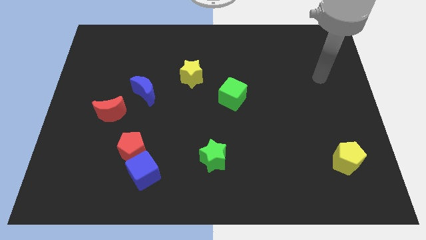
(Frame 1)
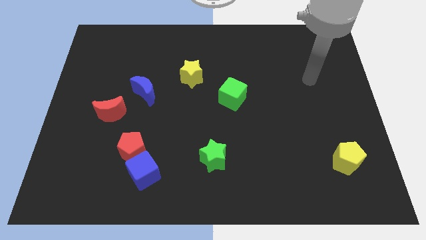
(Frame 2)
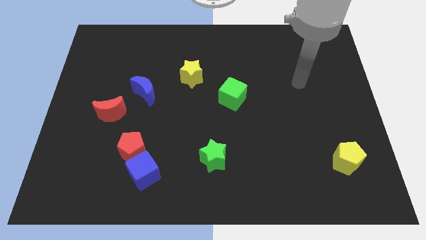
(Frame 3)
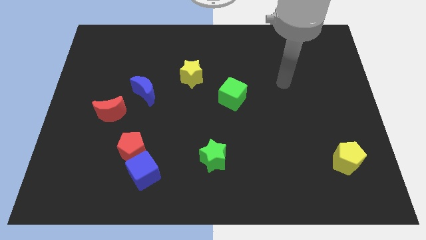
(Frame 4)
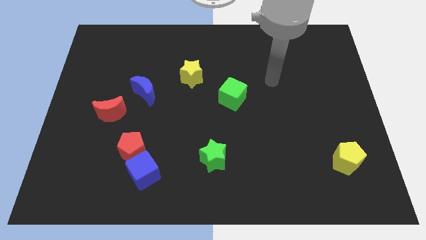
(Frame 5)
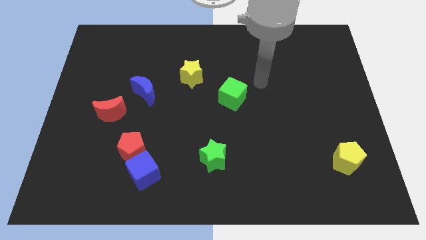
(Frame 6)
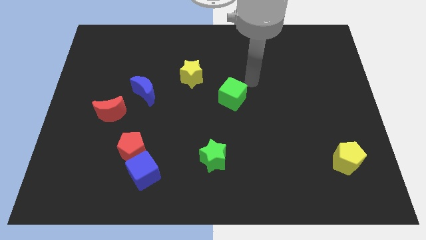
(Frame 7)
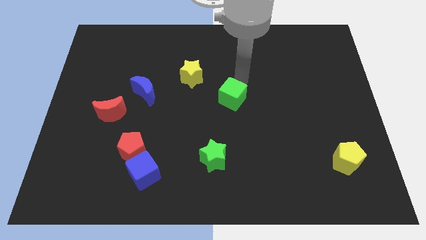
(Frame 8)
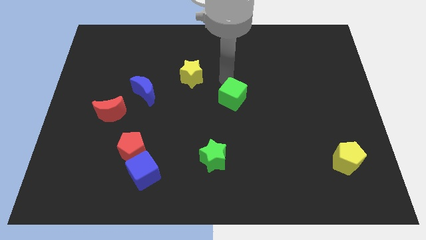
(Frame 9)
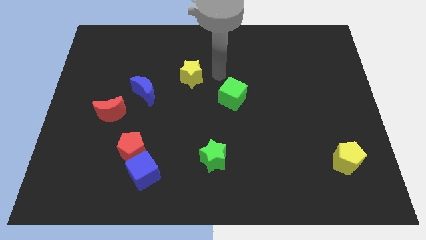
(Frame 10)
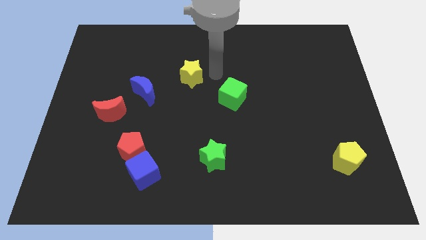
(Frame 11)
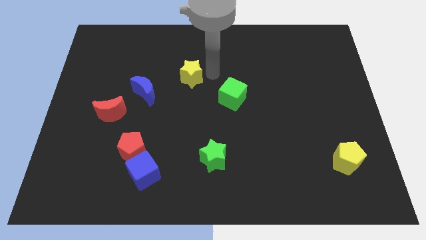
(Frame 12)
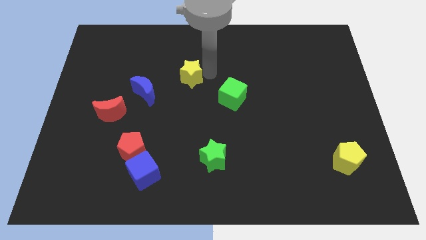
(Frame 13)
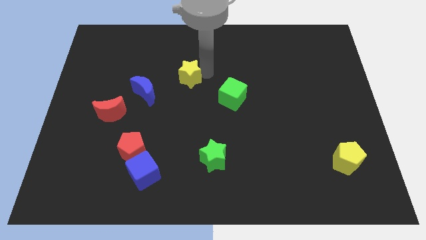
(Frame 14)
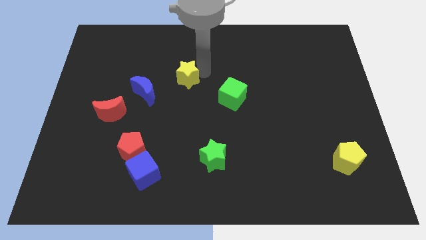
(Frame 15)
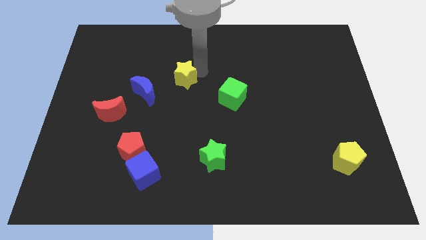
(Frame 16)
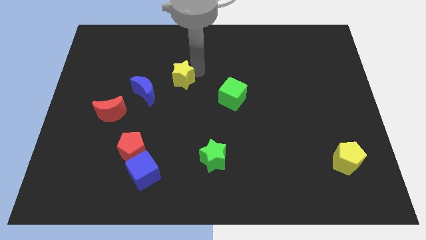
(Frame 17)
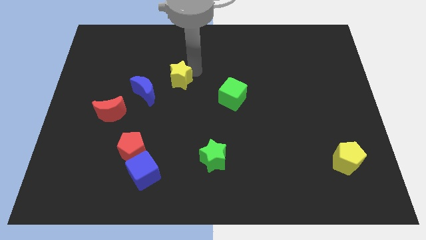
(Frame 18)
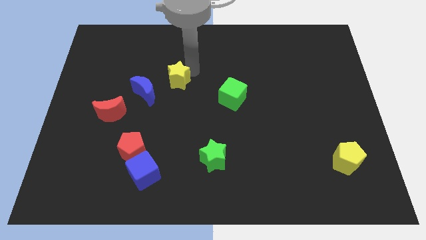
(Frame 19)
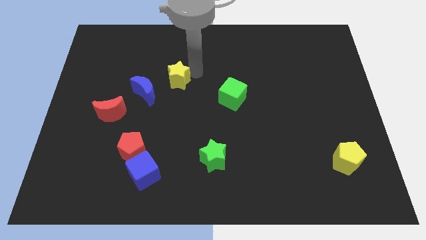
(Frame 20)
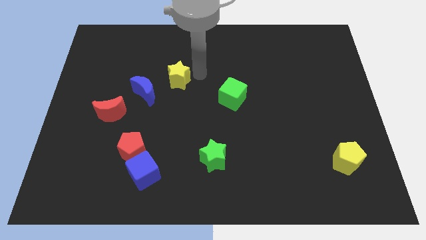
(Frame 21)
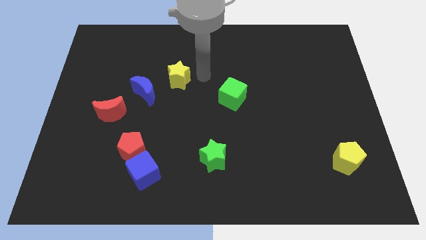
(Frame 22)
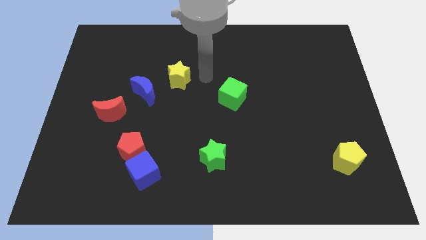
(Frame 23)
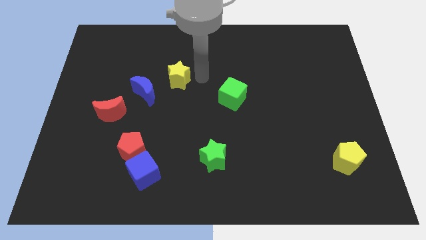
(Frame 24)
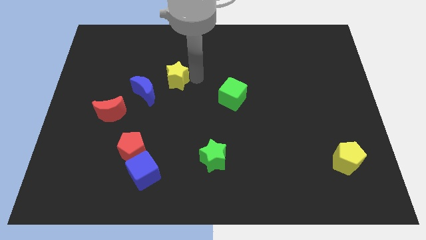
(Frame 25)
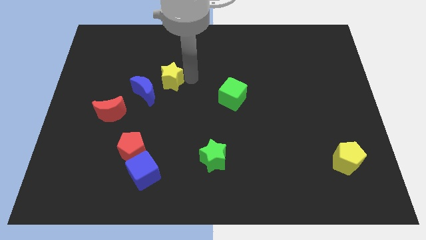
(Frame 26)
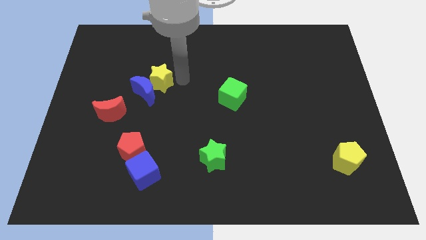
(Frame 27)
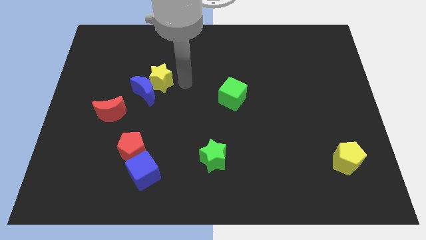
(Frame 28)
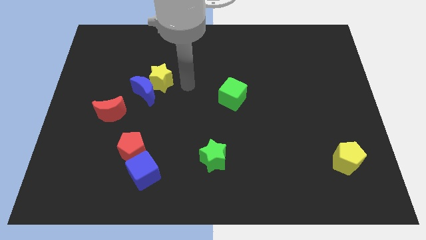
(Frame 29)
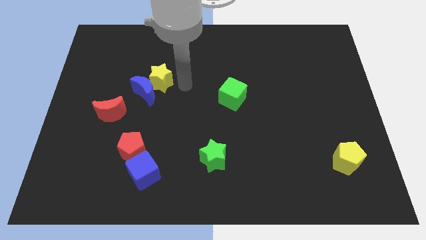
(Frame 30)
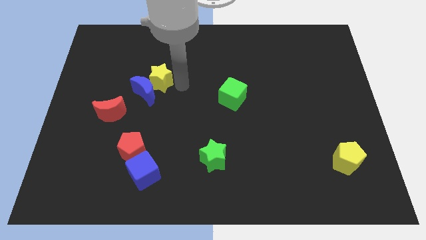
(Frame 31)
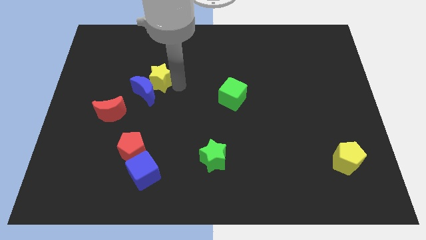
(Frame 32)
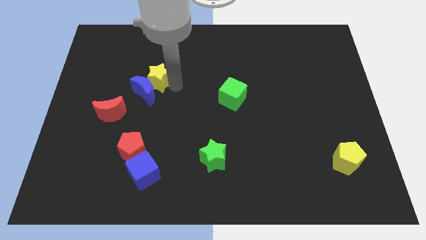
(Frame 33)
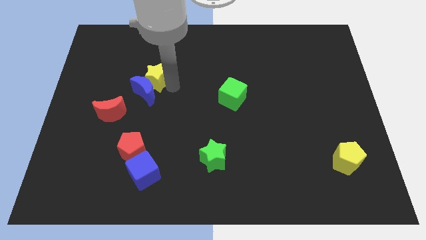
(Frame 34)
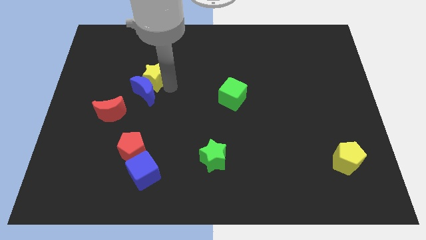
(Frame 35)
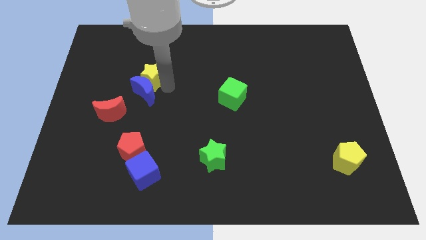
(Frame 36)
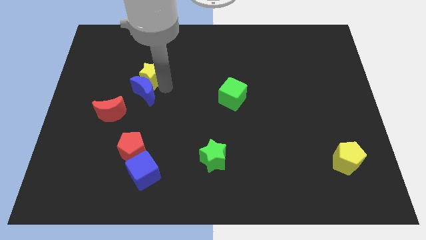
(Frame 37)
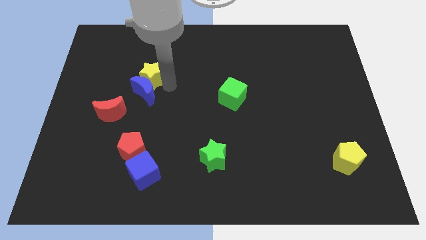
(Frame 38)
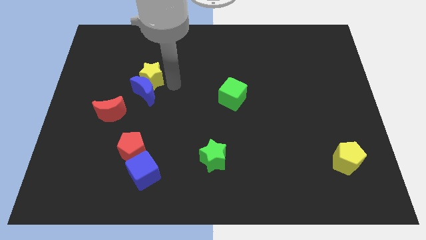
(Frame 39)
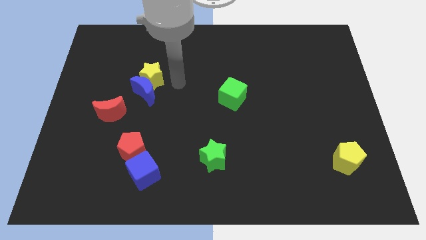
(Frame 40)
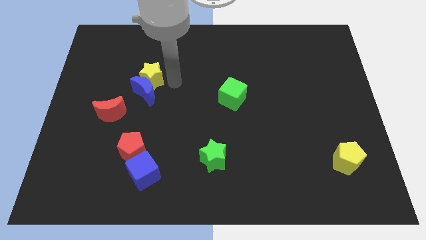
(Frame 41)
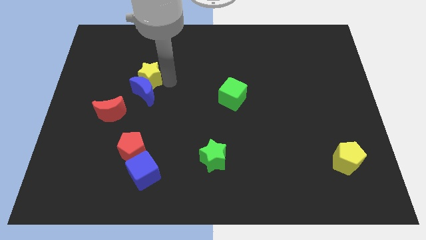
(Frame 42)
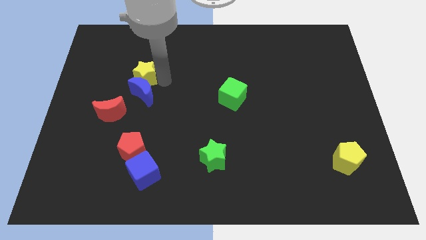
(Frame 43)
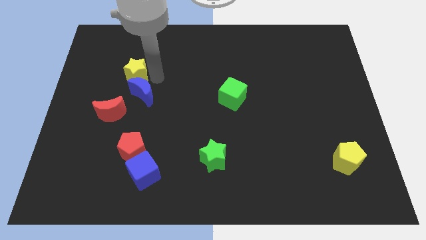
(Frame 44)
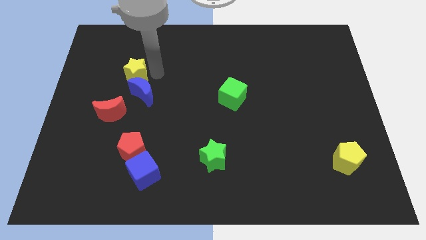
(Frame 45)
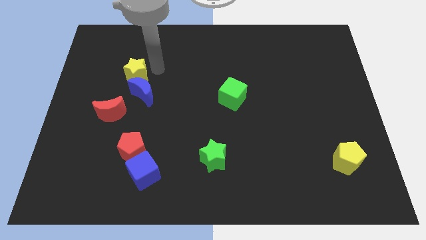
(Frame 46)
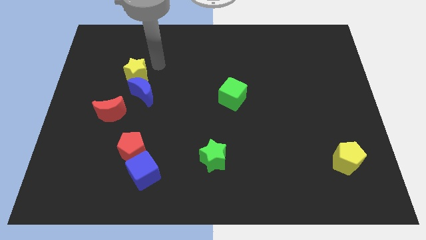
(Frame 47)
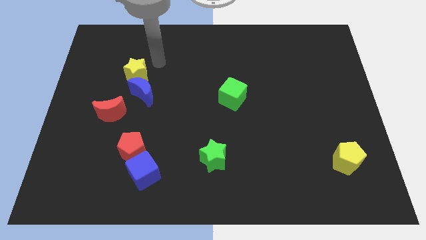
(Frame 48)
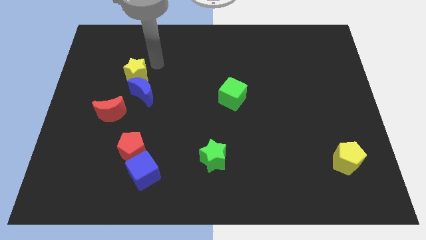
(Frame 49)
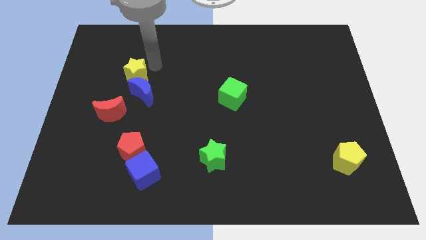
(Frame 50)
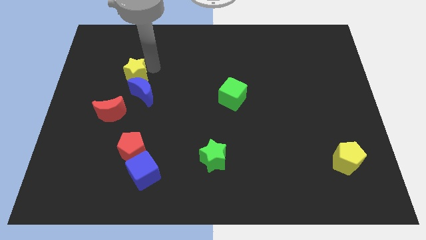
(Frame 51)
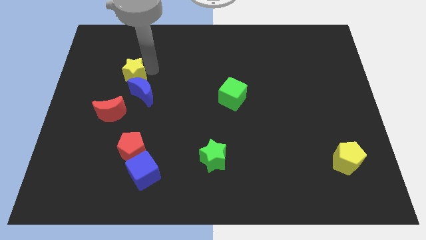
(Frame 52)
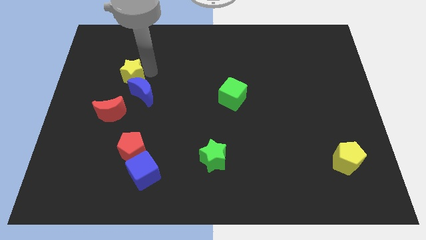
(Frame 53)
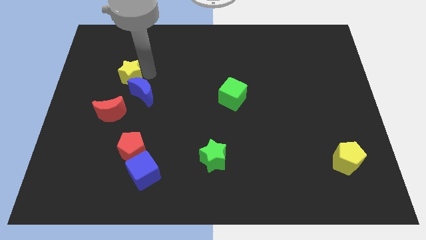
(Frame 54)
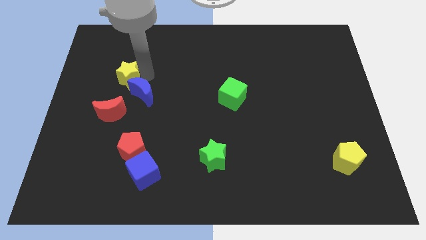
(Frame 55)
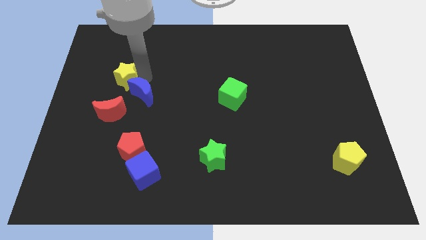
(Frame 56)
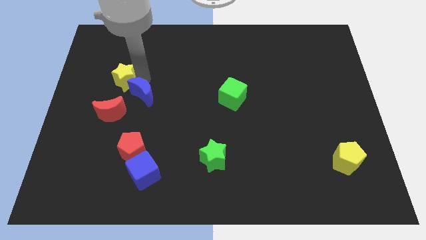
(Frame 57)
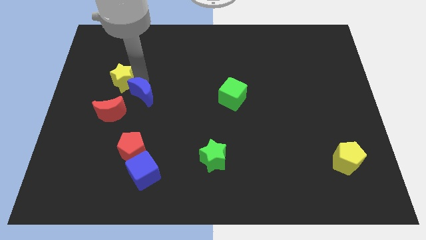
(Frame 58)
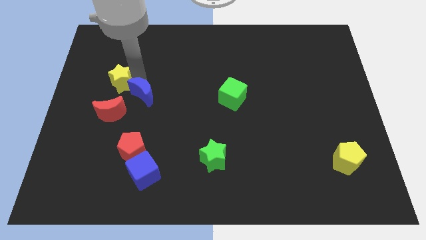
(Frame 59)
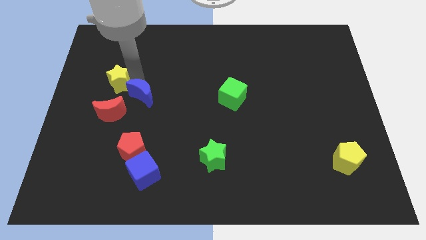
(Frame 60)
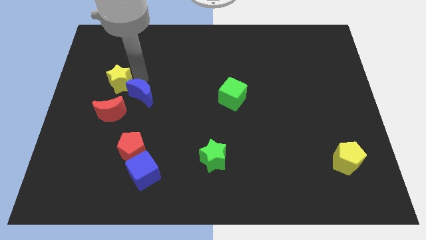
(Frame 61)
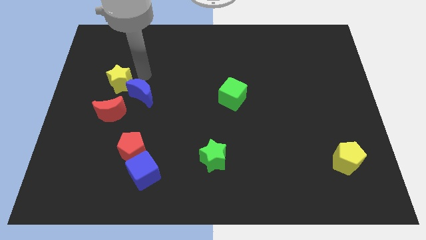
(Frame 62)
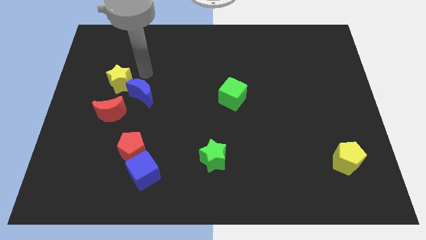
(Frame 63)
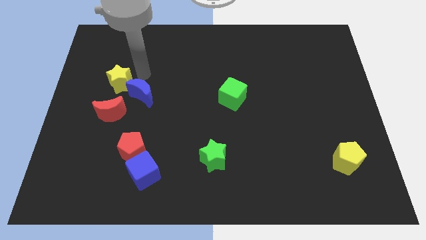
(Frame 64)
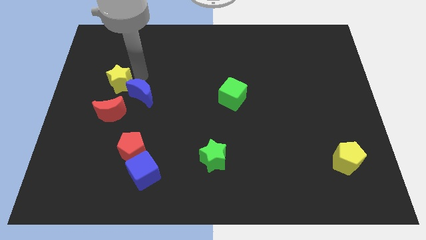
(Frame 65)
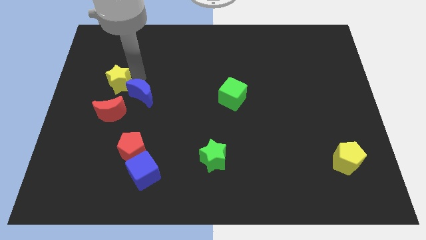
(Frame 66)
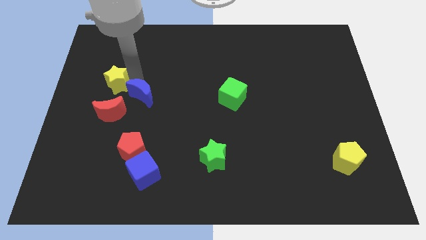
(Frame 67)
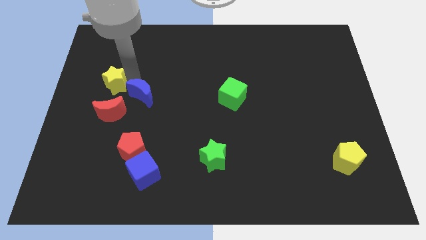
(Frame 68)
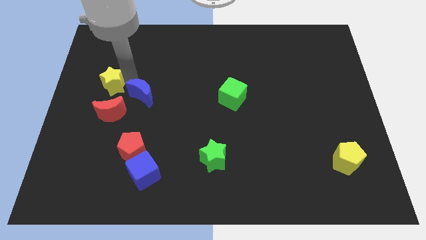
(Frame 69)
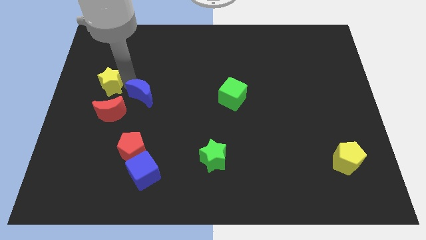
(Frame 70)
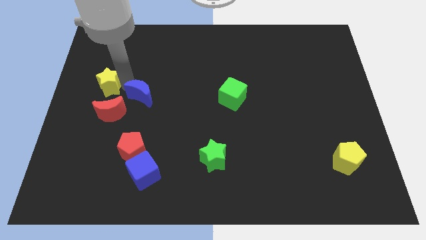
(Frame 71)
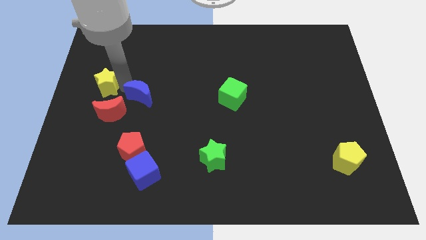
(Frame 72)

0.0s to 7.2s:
push the yellow star to the center left

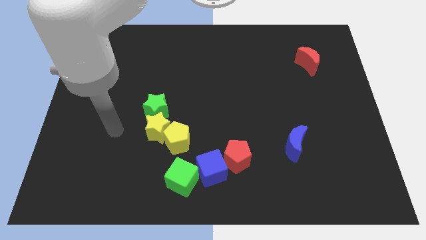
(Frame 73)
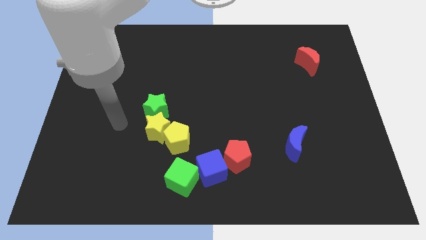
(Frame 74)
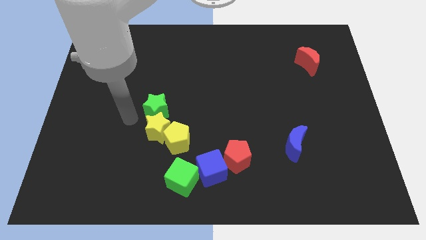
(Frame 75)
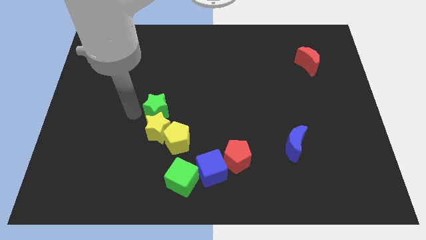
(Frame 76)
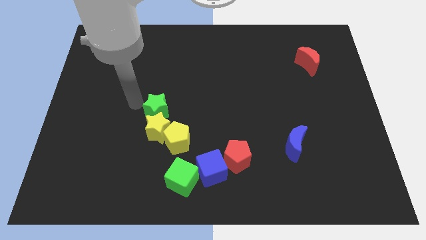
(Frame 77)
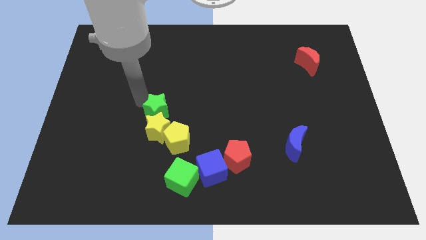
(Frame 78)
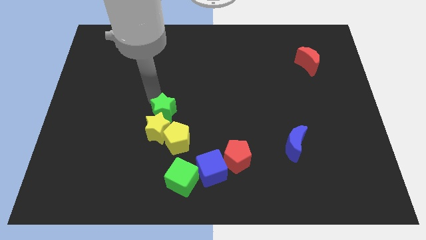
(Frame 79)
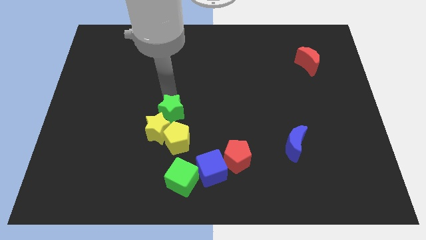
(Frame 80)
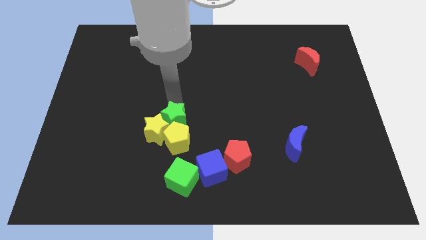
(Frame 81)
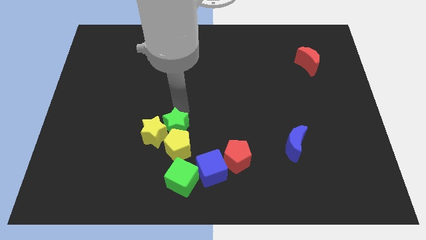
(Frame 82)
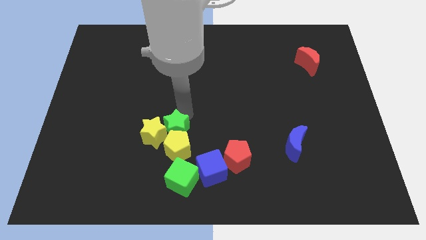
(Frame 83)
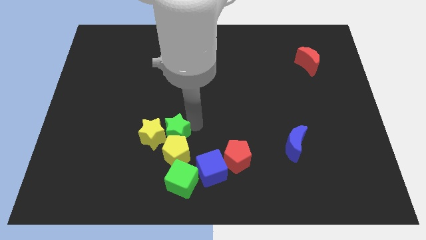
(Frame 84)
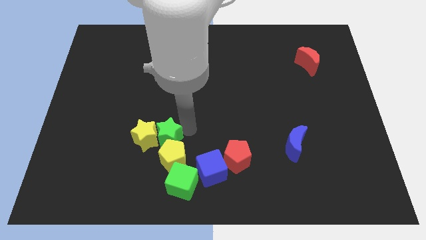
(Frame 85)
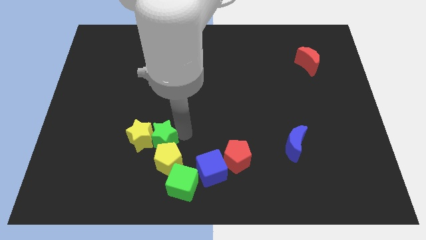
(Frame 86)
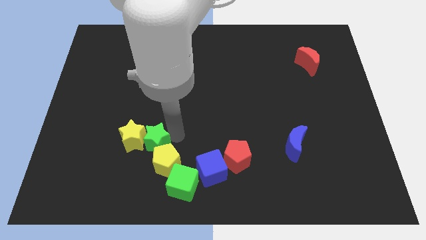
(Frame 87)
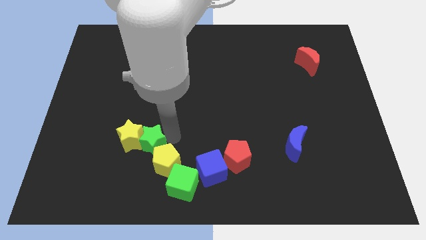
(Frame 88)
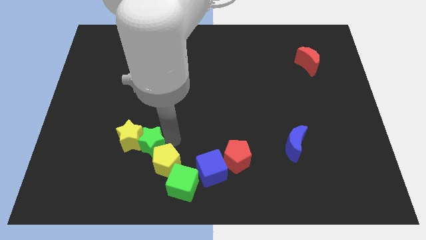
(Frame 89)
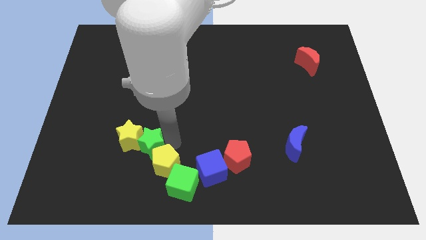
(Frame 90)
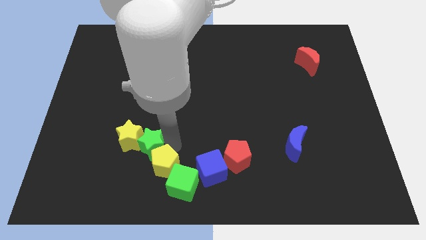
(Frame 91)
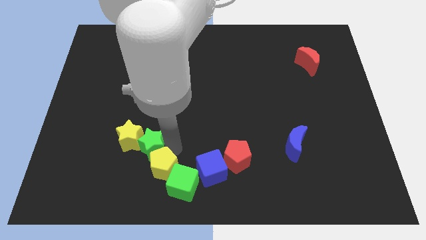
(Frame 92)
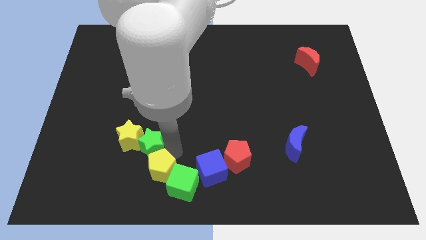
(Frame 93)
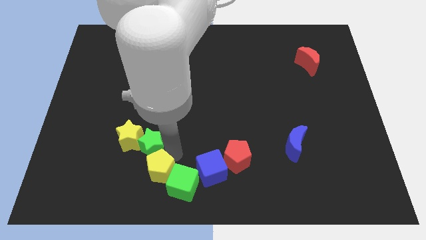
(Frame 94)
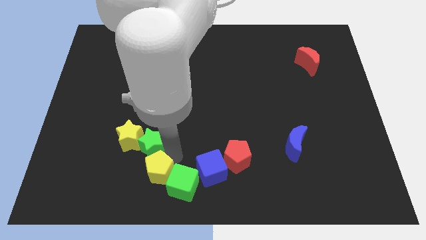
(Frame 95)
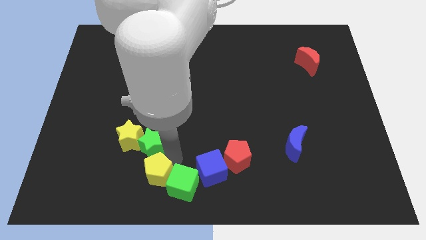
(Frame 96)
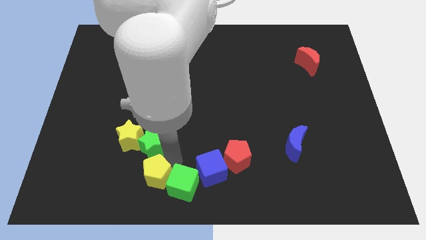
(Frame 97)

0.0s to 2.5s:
slide the yellow pentagon to the bottom side
